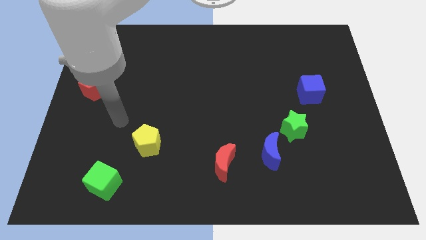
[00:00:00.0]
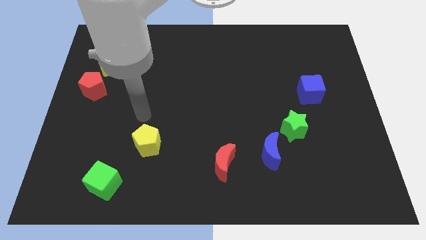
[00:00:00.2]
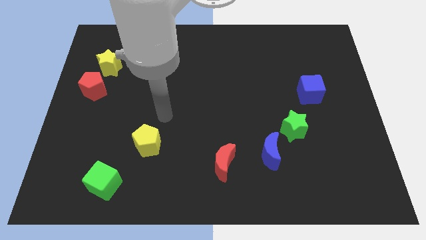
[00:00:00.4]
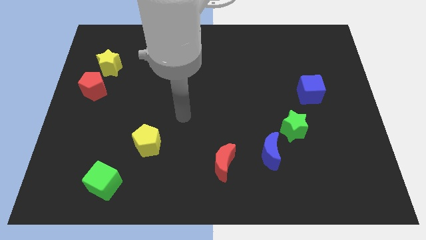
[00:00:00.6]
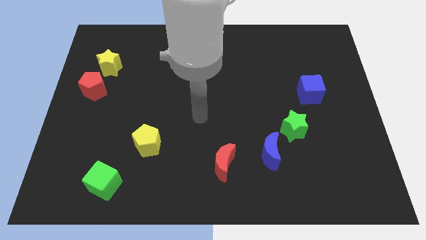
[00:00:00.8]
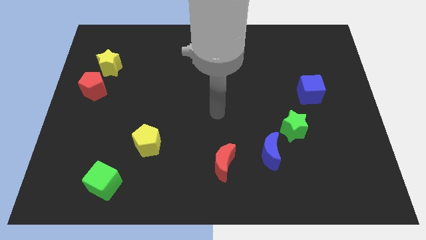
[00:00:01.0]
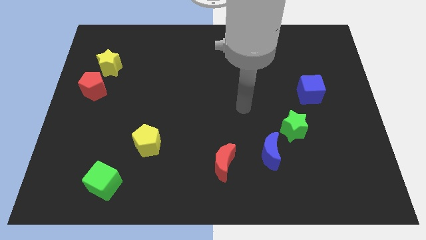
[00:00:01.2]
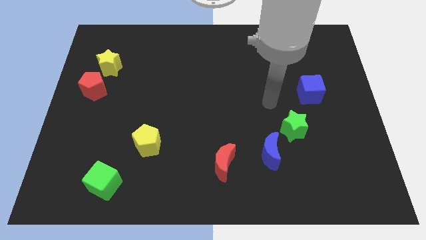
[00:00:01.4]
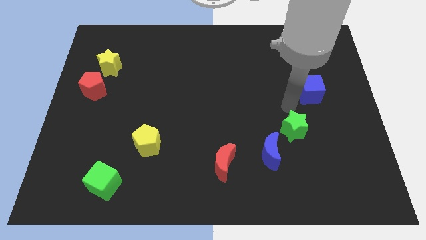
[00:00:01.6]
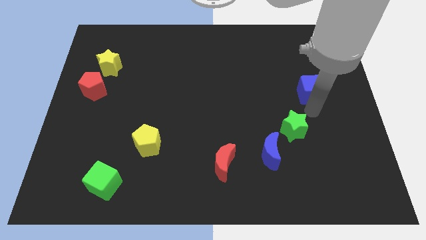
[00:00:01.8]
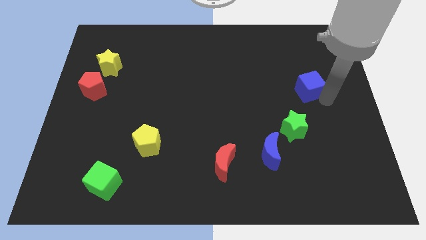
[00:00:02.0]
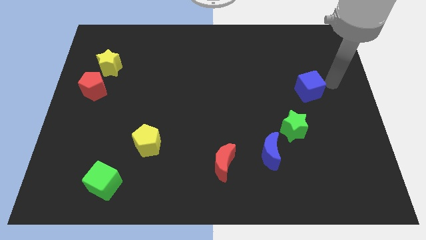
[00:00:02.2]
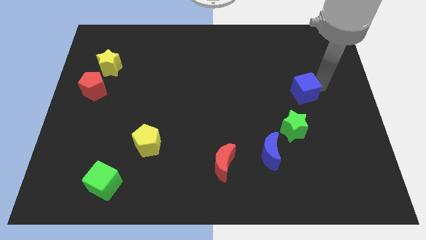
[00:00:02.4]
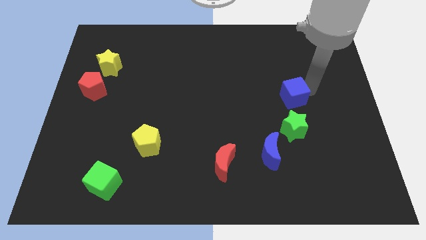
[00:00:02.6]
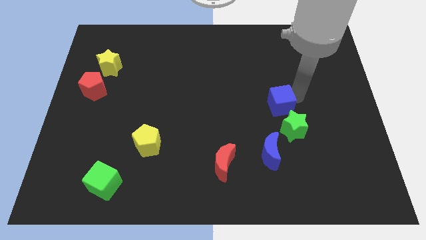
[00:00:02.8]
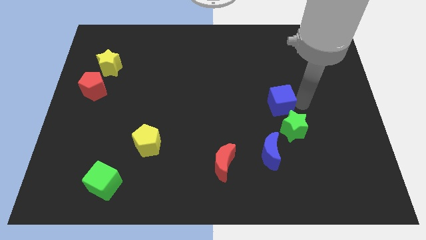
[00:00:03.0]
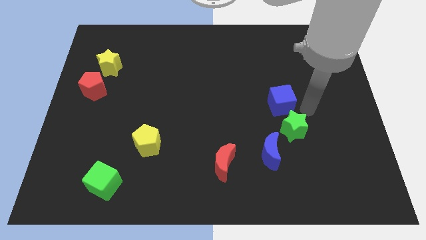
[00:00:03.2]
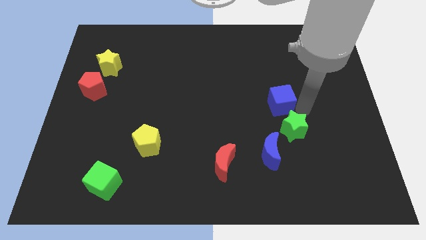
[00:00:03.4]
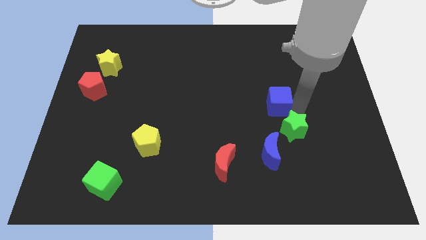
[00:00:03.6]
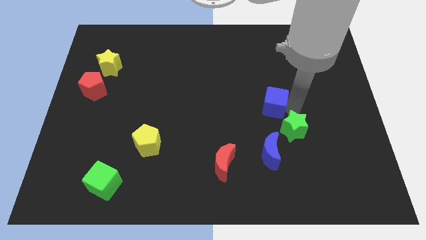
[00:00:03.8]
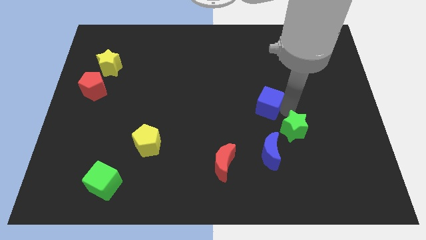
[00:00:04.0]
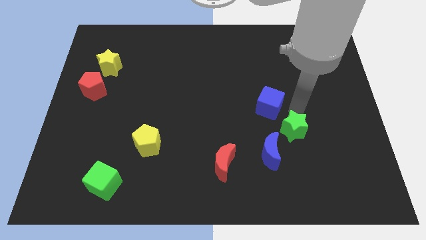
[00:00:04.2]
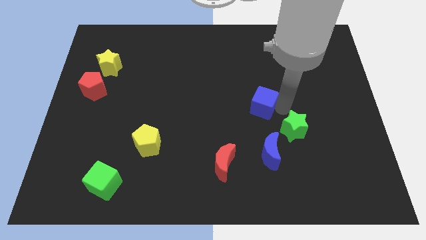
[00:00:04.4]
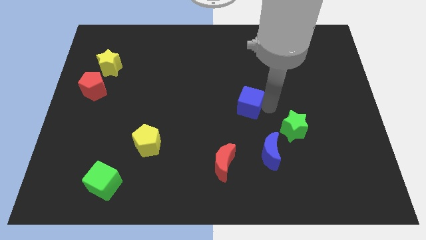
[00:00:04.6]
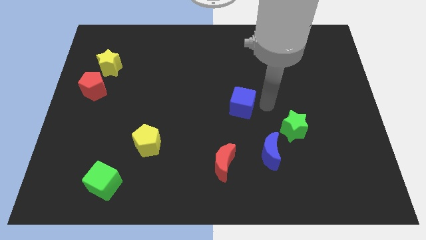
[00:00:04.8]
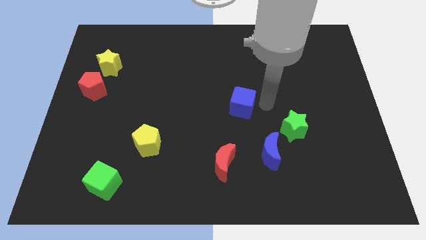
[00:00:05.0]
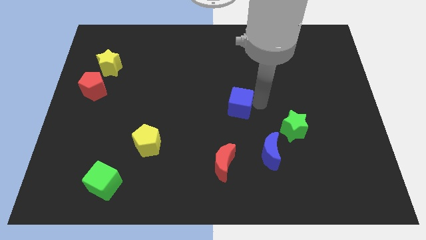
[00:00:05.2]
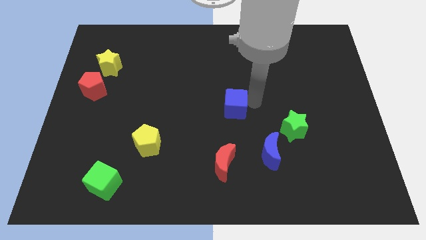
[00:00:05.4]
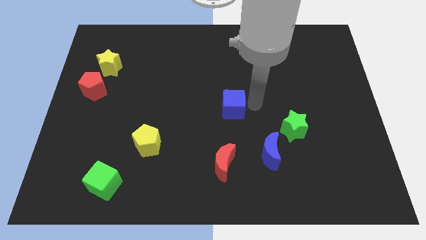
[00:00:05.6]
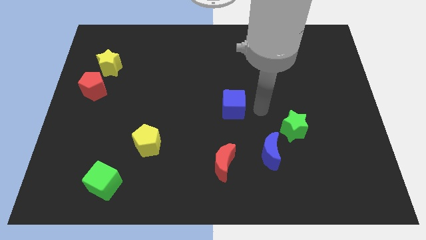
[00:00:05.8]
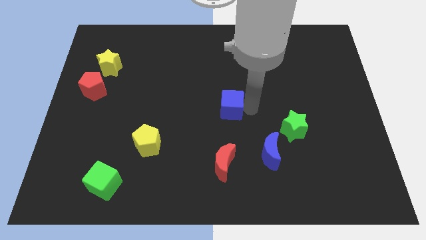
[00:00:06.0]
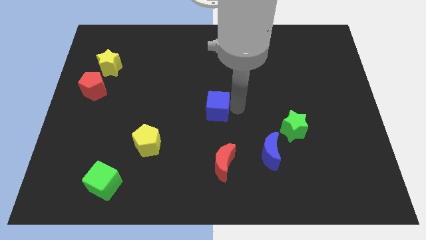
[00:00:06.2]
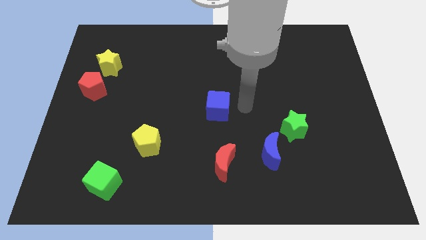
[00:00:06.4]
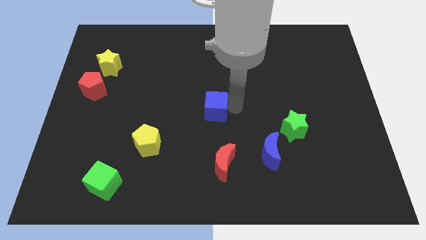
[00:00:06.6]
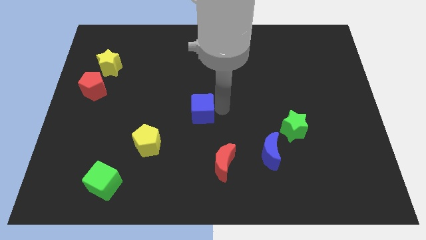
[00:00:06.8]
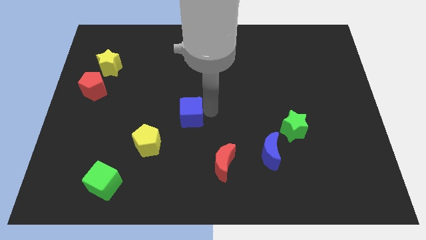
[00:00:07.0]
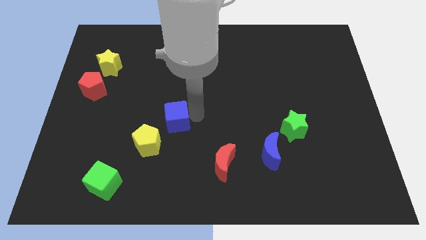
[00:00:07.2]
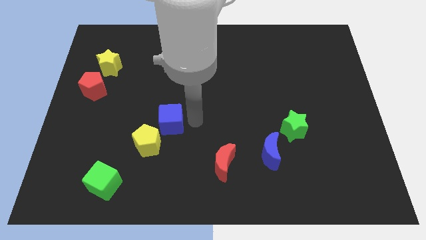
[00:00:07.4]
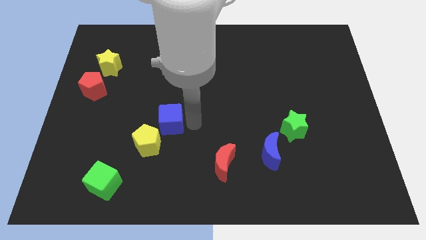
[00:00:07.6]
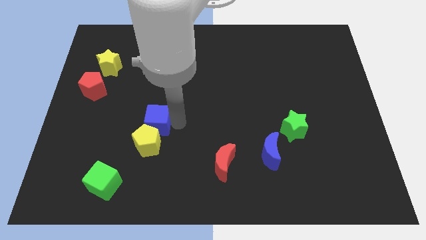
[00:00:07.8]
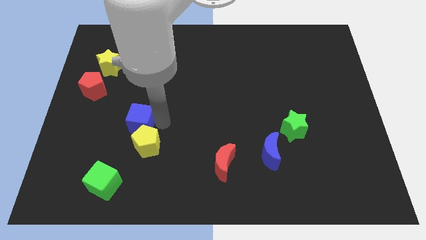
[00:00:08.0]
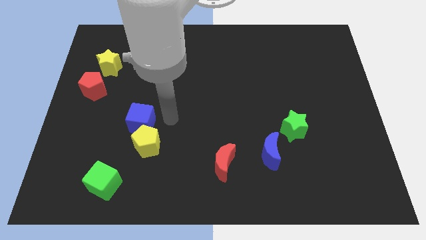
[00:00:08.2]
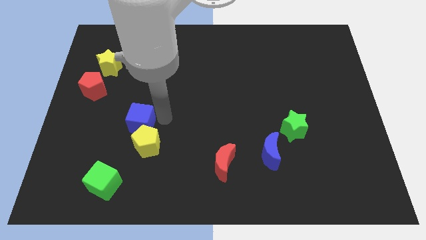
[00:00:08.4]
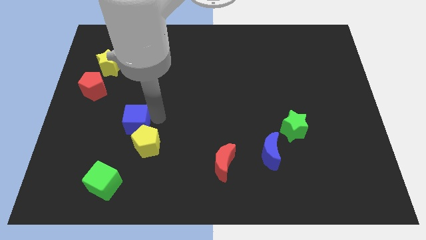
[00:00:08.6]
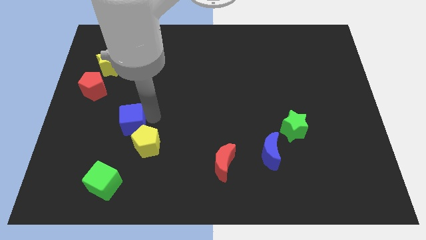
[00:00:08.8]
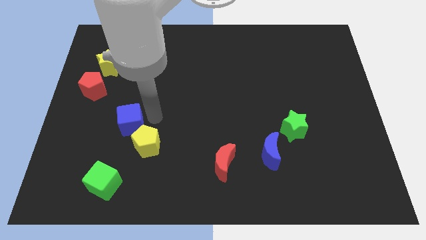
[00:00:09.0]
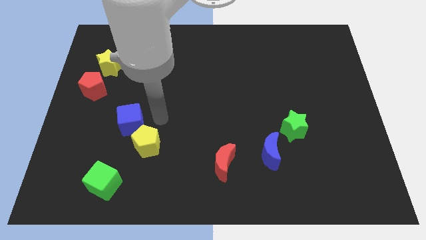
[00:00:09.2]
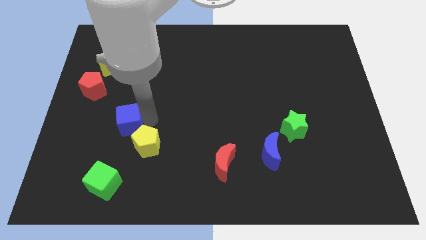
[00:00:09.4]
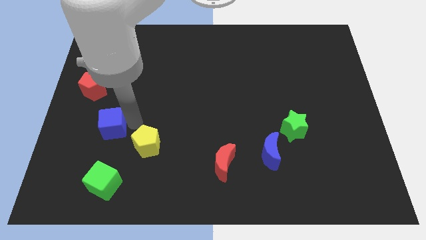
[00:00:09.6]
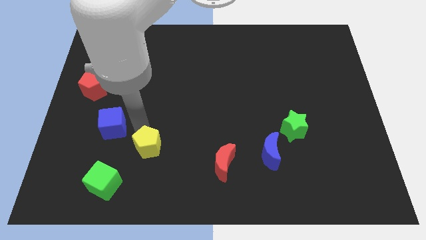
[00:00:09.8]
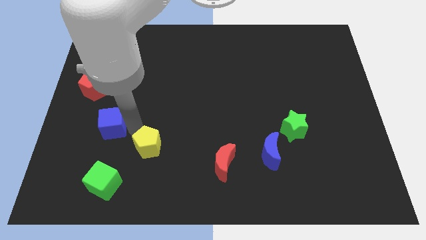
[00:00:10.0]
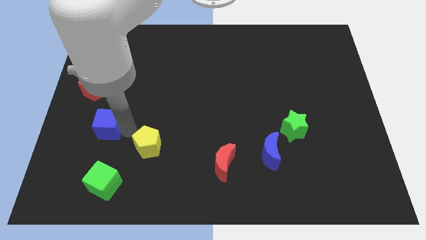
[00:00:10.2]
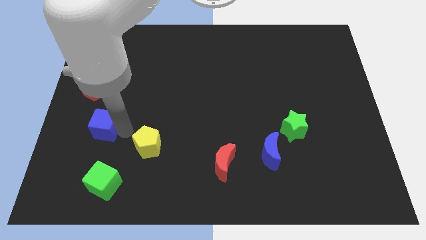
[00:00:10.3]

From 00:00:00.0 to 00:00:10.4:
put the blue cube to the bottom side of the red pentagon

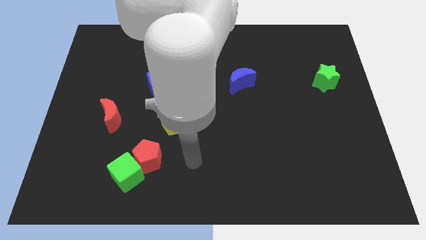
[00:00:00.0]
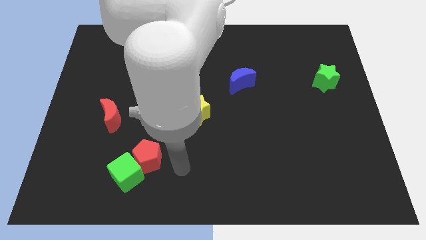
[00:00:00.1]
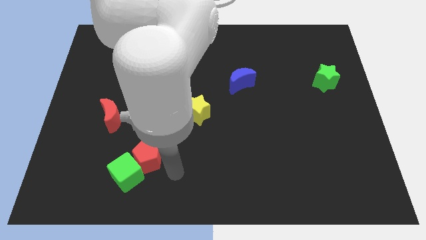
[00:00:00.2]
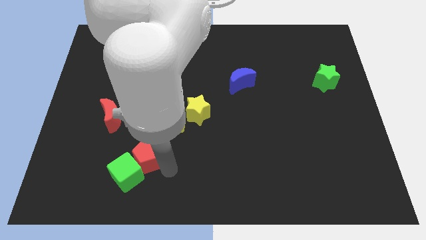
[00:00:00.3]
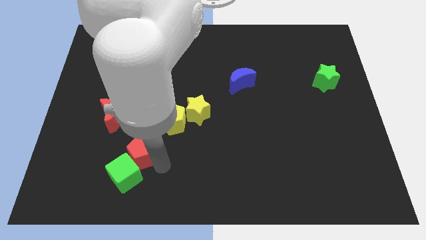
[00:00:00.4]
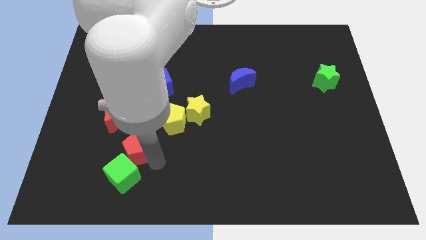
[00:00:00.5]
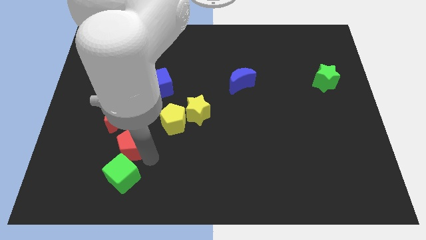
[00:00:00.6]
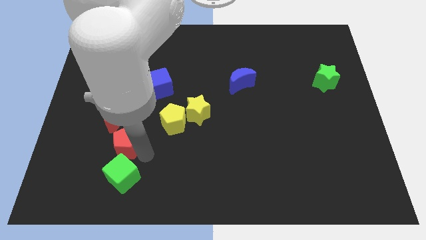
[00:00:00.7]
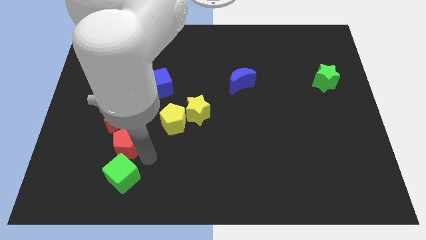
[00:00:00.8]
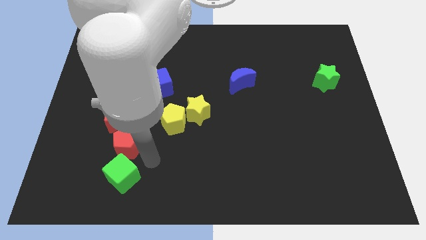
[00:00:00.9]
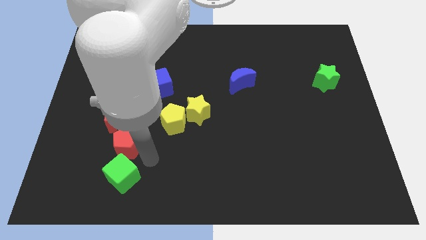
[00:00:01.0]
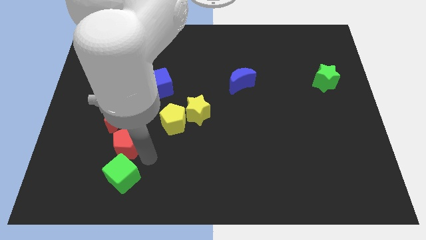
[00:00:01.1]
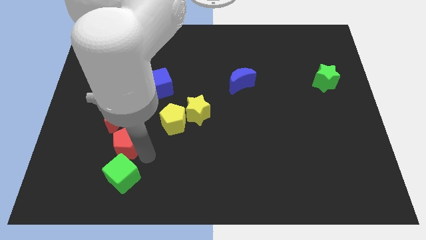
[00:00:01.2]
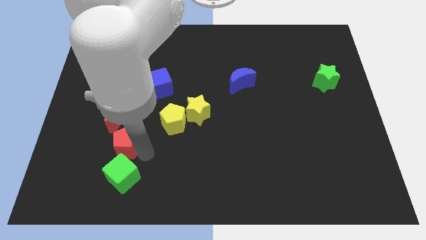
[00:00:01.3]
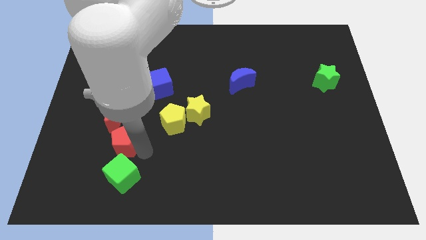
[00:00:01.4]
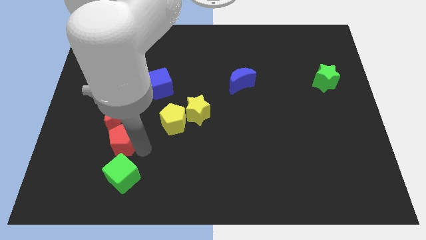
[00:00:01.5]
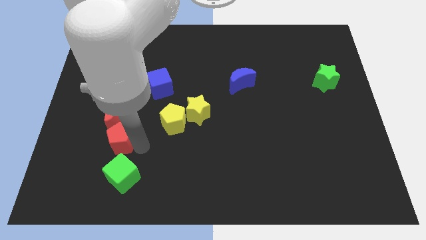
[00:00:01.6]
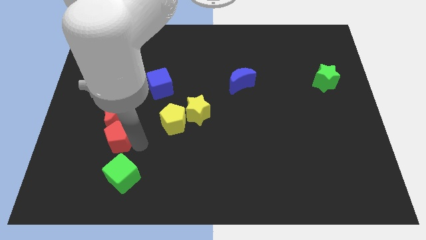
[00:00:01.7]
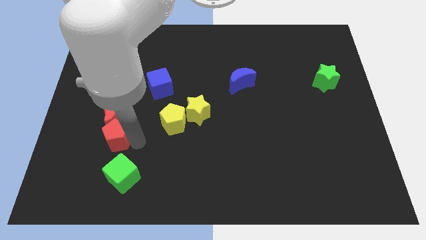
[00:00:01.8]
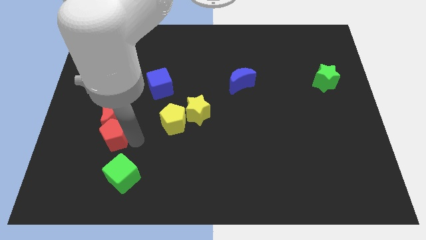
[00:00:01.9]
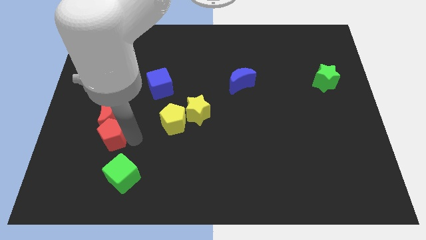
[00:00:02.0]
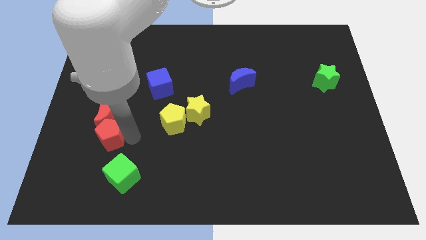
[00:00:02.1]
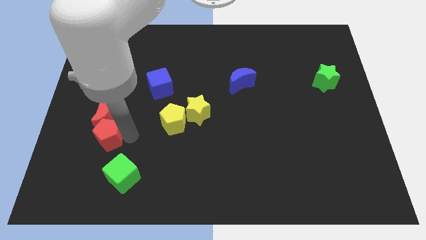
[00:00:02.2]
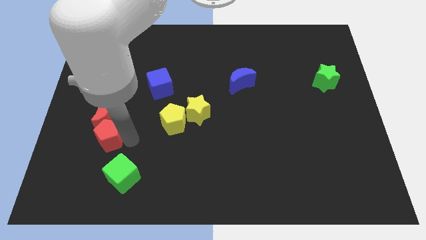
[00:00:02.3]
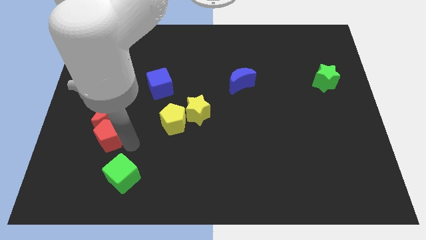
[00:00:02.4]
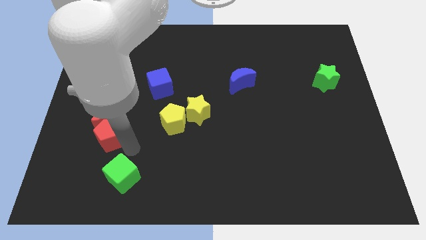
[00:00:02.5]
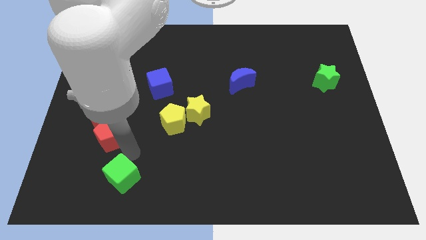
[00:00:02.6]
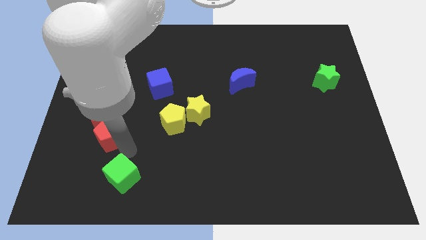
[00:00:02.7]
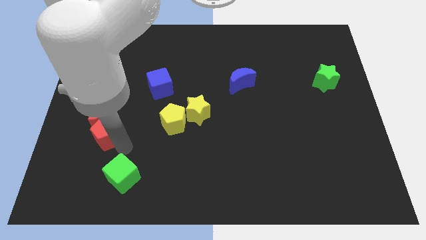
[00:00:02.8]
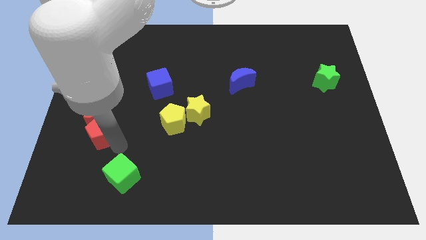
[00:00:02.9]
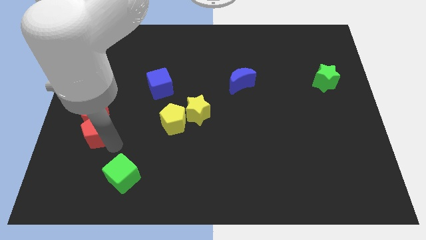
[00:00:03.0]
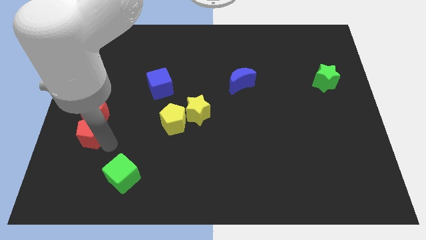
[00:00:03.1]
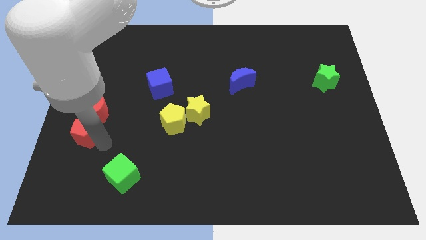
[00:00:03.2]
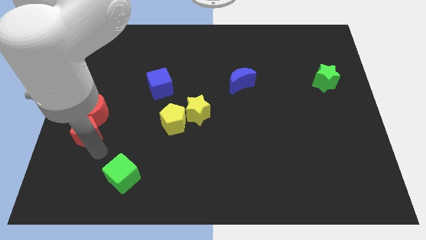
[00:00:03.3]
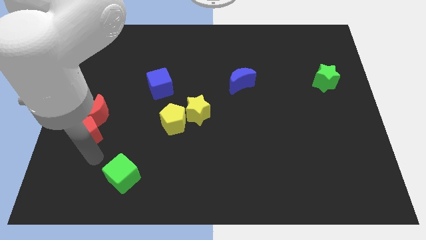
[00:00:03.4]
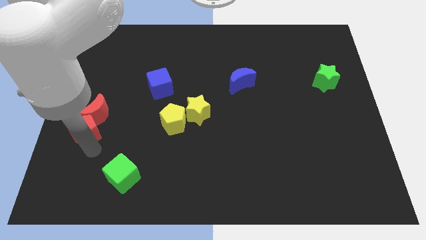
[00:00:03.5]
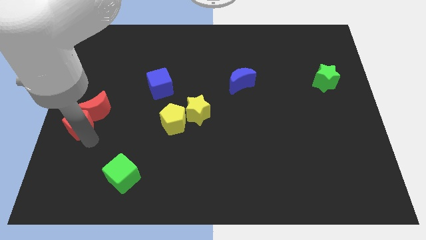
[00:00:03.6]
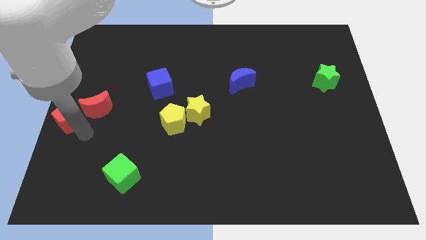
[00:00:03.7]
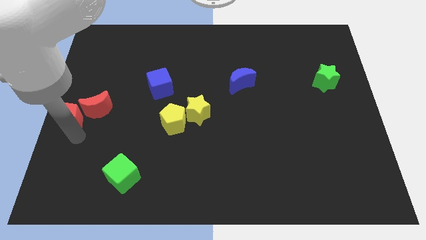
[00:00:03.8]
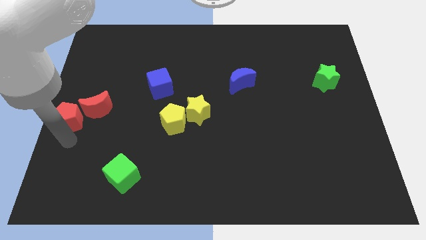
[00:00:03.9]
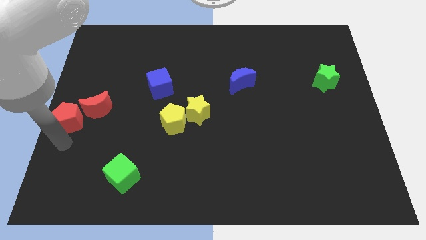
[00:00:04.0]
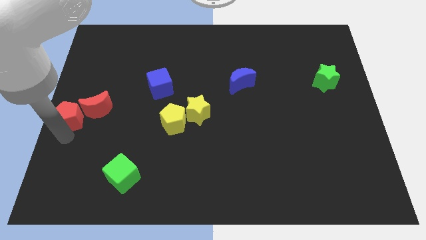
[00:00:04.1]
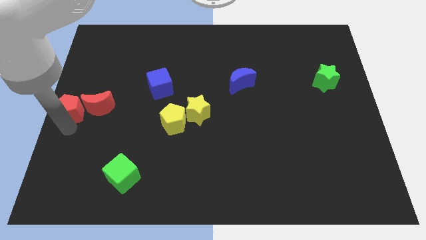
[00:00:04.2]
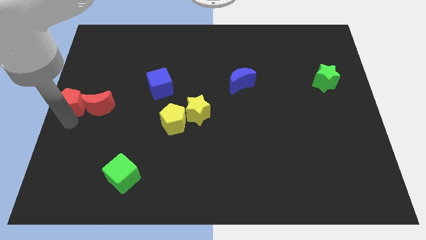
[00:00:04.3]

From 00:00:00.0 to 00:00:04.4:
slide the red pentagon to the top left side of the red moon
